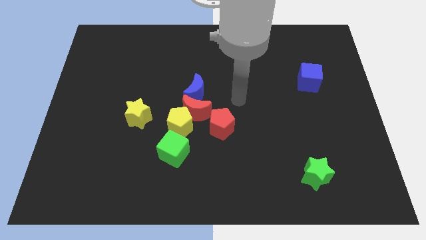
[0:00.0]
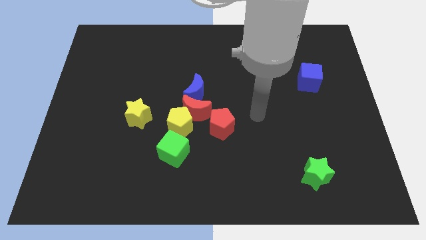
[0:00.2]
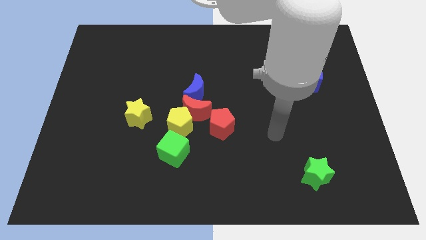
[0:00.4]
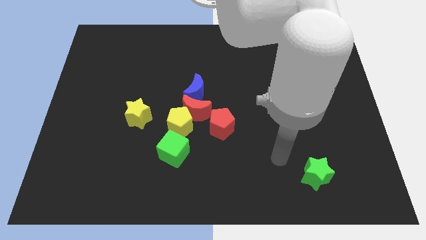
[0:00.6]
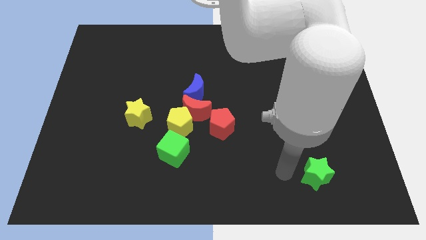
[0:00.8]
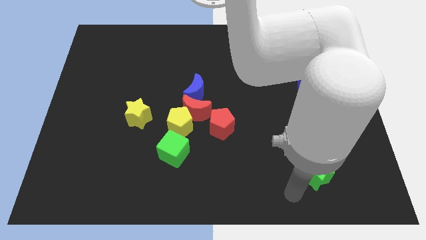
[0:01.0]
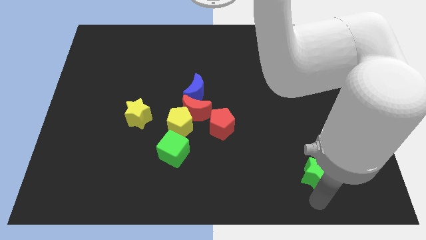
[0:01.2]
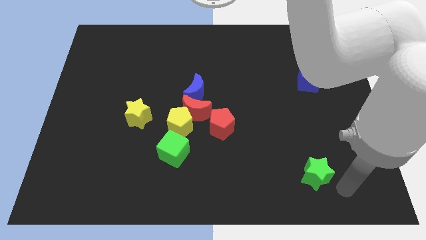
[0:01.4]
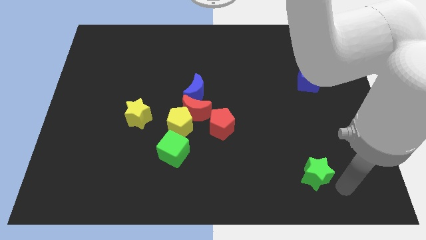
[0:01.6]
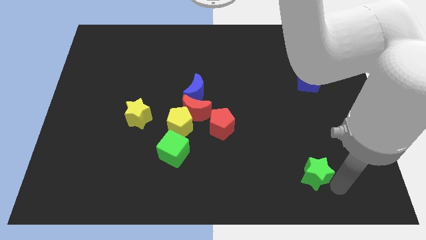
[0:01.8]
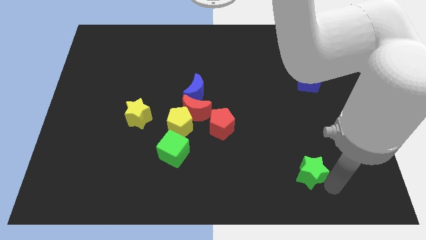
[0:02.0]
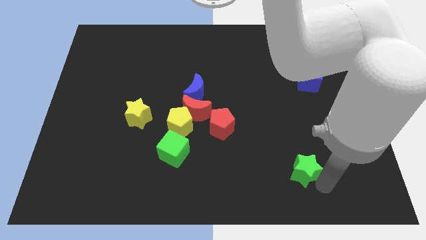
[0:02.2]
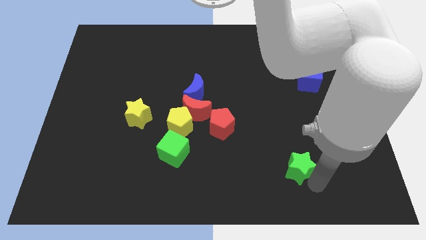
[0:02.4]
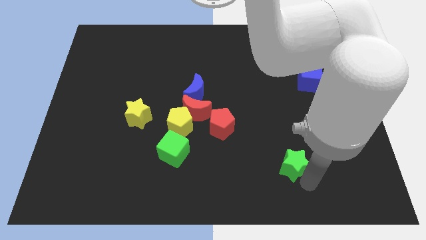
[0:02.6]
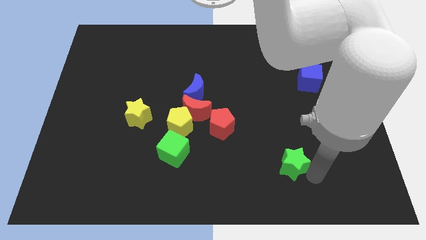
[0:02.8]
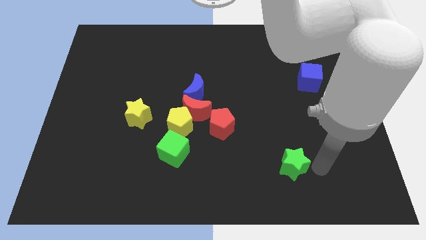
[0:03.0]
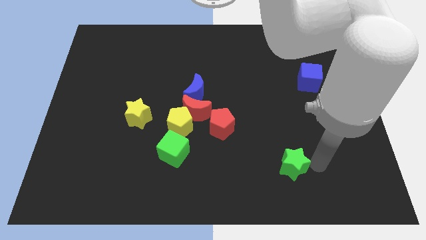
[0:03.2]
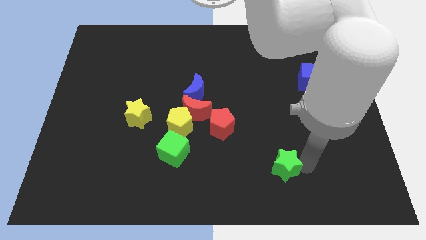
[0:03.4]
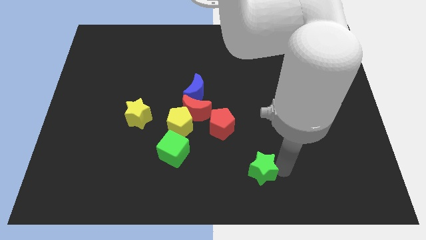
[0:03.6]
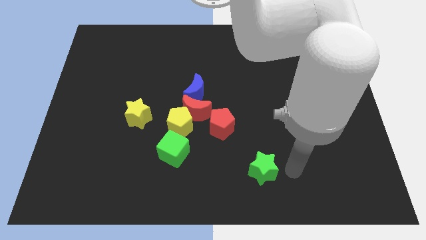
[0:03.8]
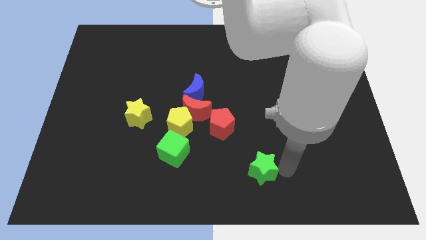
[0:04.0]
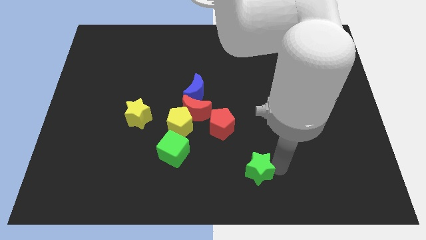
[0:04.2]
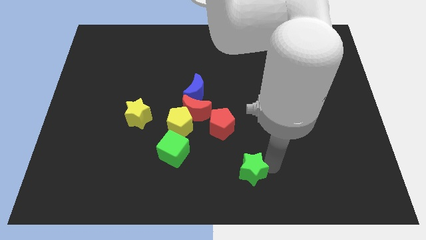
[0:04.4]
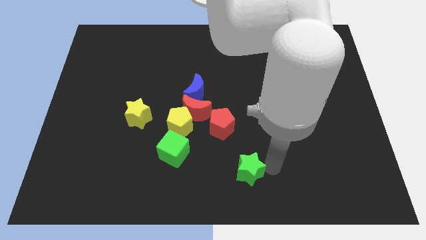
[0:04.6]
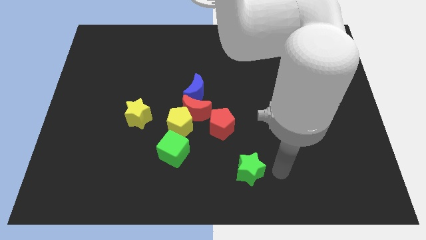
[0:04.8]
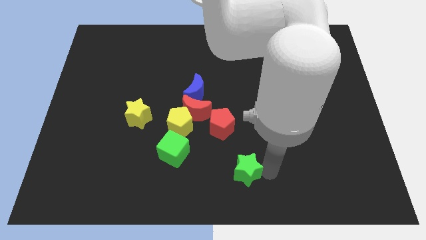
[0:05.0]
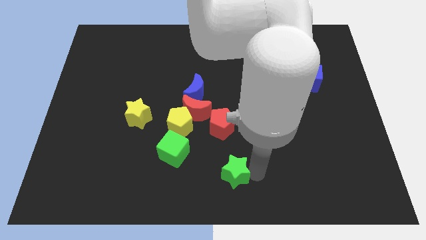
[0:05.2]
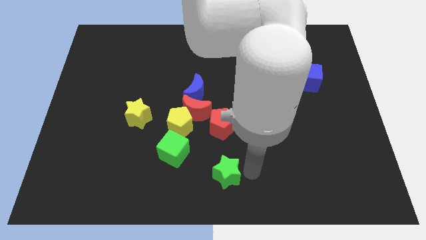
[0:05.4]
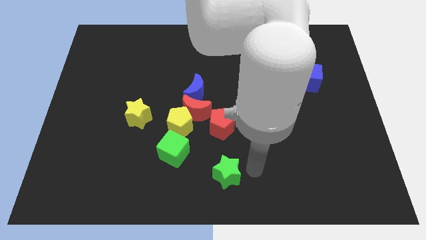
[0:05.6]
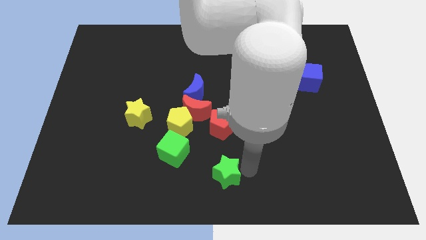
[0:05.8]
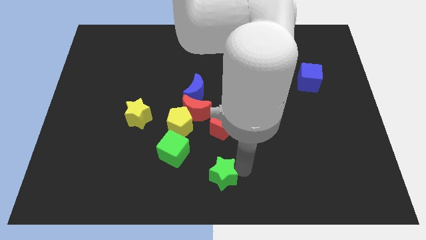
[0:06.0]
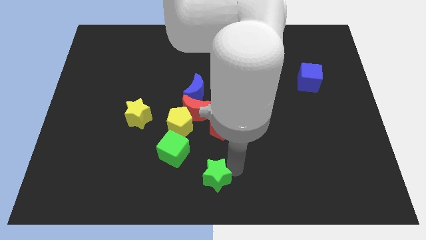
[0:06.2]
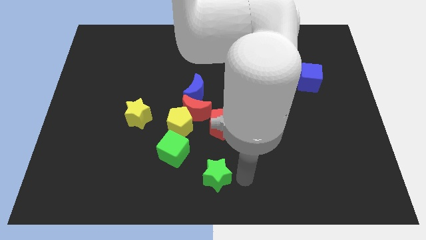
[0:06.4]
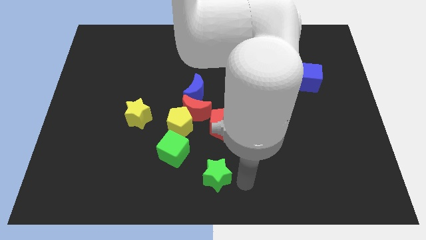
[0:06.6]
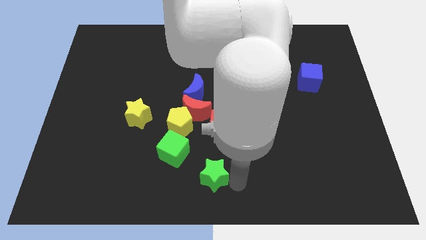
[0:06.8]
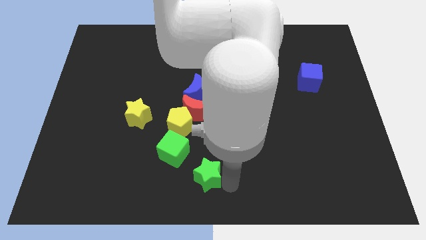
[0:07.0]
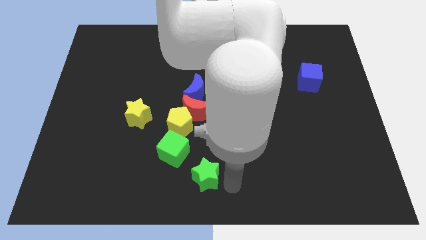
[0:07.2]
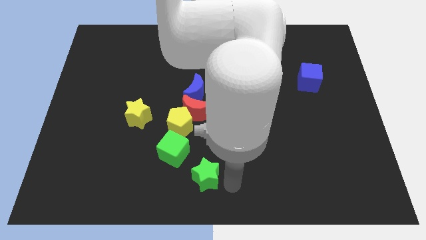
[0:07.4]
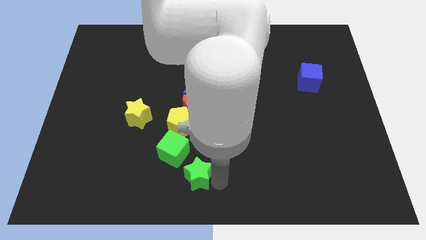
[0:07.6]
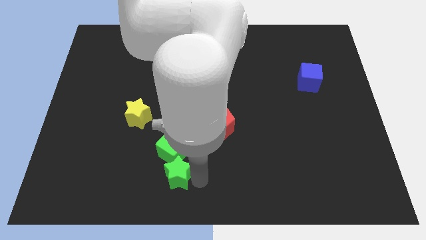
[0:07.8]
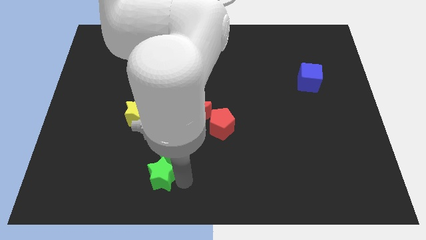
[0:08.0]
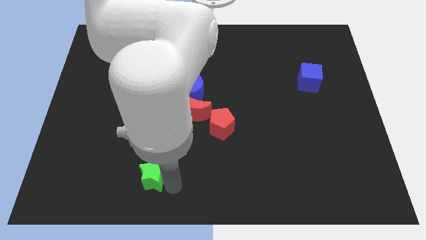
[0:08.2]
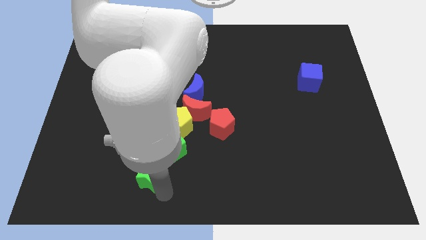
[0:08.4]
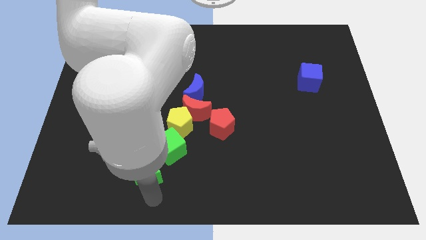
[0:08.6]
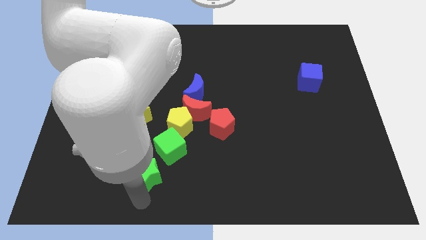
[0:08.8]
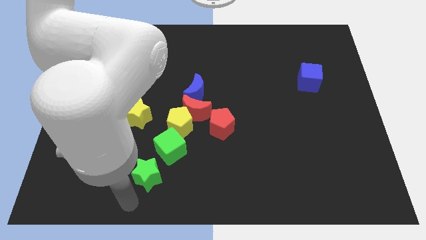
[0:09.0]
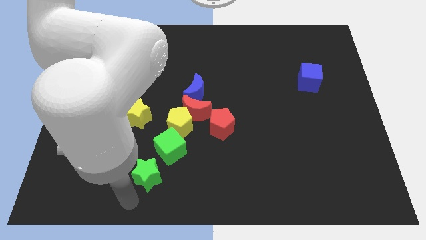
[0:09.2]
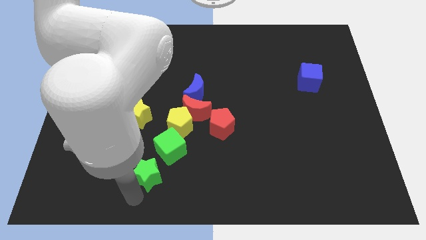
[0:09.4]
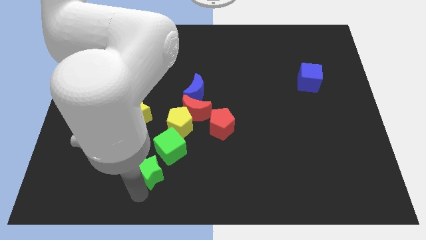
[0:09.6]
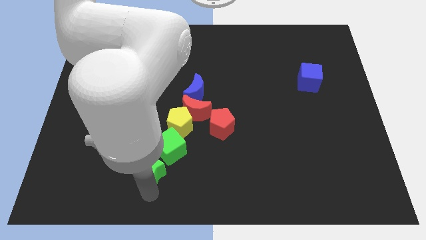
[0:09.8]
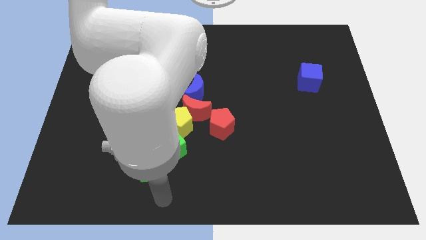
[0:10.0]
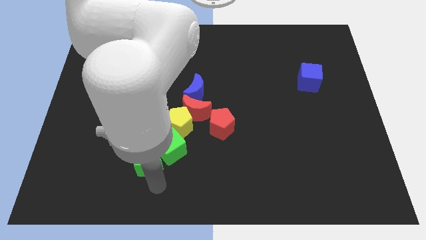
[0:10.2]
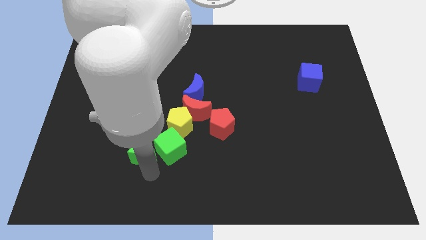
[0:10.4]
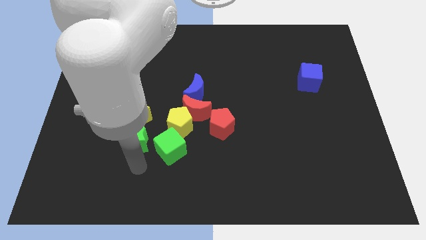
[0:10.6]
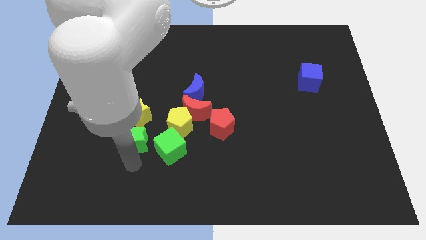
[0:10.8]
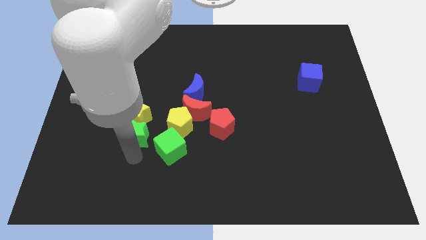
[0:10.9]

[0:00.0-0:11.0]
put the green star close to the yellow star

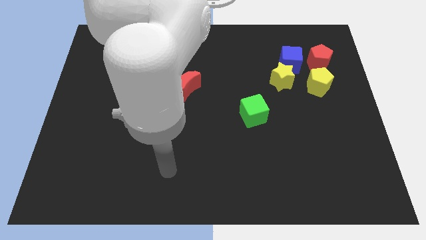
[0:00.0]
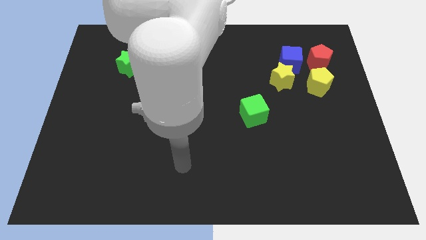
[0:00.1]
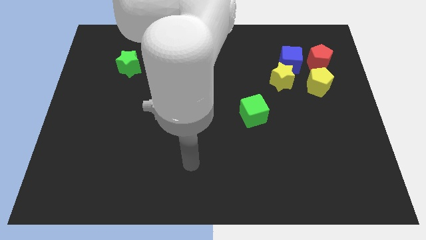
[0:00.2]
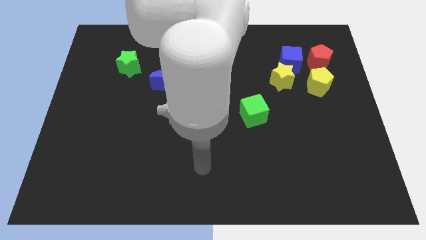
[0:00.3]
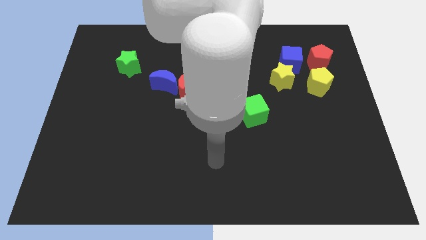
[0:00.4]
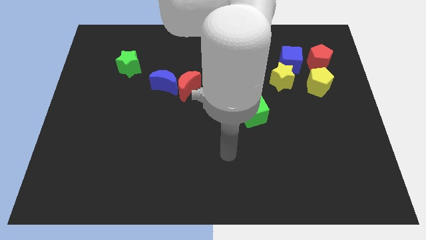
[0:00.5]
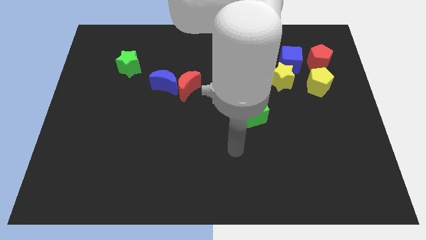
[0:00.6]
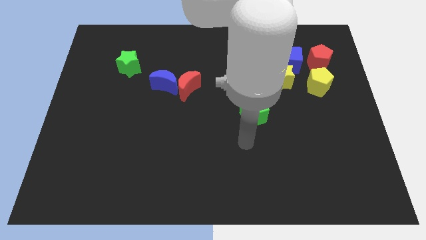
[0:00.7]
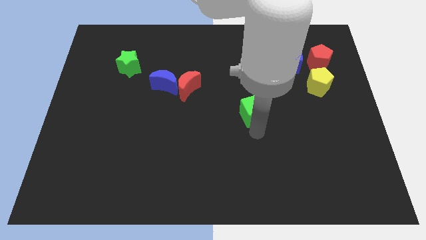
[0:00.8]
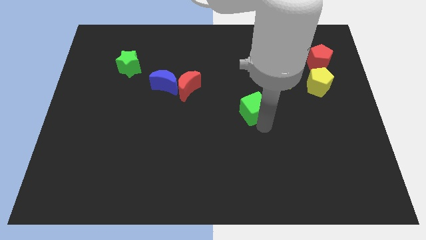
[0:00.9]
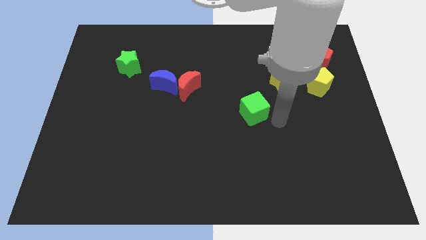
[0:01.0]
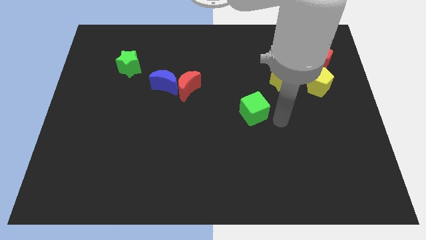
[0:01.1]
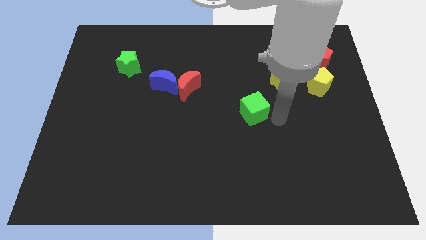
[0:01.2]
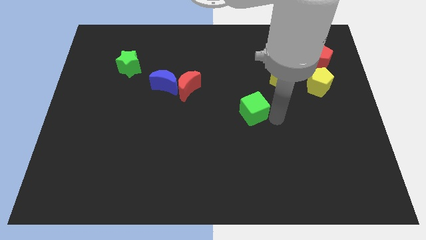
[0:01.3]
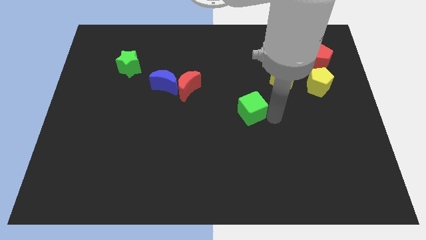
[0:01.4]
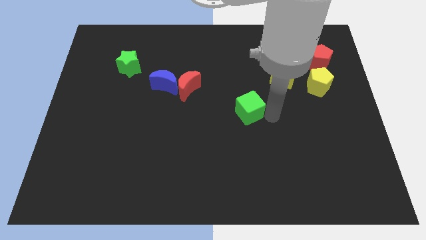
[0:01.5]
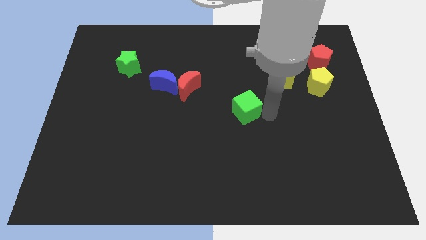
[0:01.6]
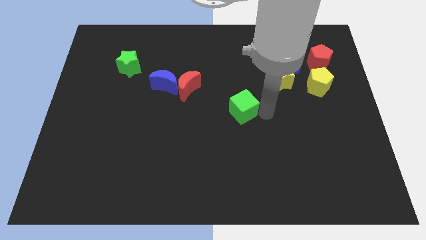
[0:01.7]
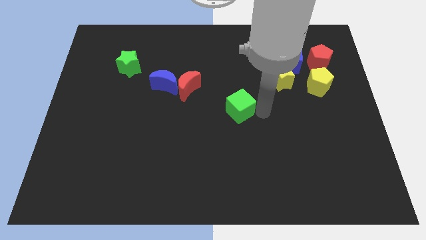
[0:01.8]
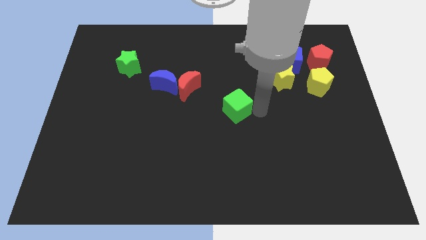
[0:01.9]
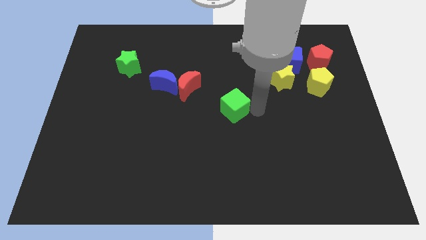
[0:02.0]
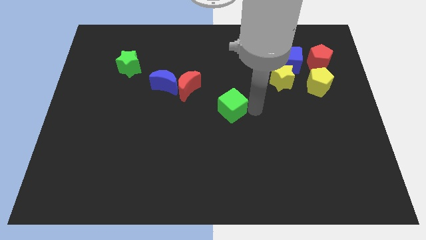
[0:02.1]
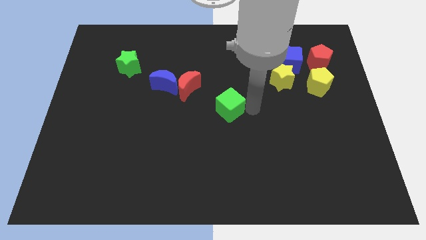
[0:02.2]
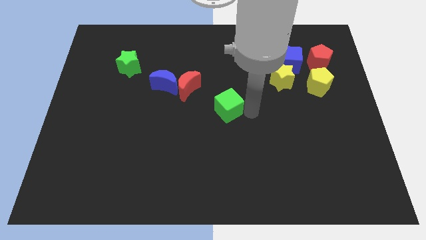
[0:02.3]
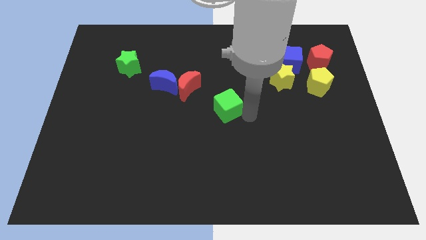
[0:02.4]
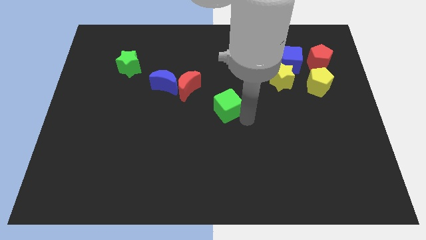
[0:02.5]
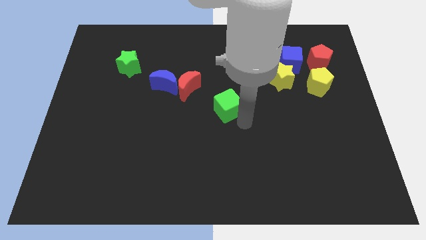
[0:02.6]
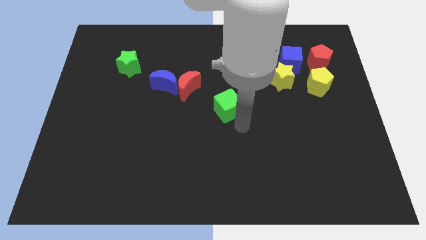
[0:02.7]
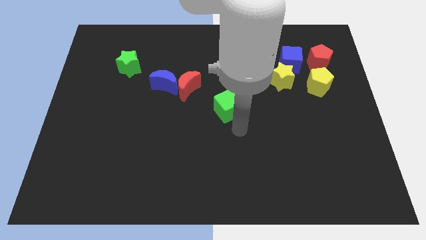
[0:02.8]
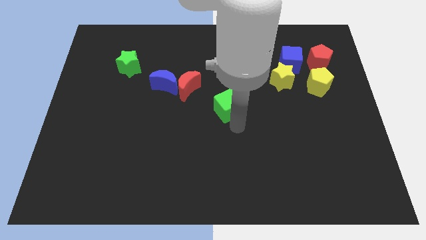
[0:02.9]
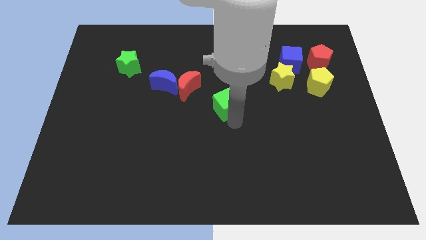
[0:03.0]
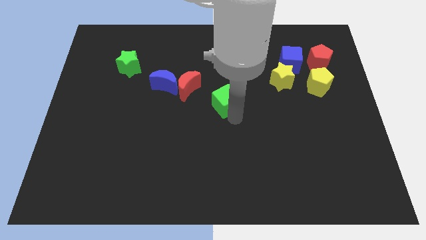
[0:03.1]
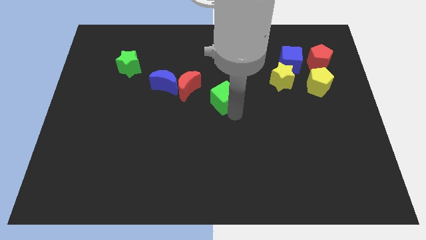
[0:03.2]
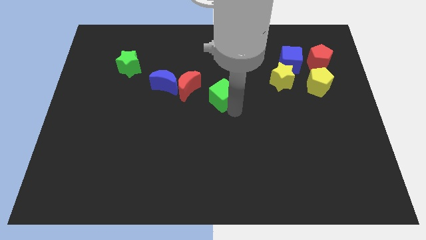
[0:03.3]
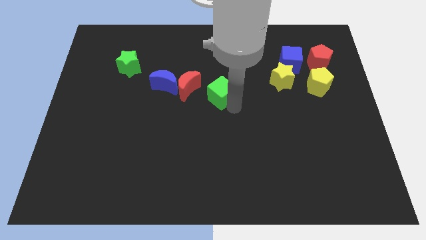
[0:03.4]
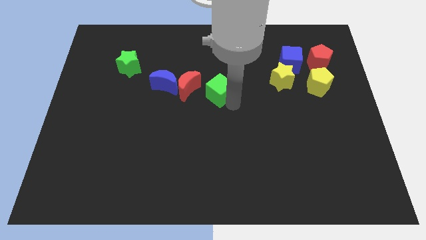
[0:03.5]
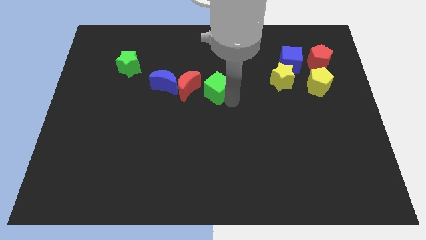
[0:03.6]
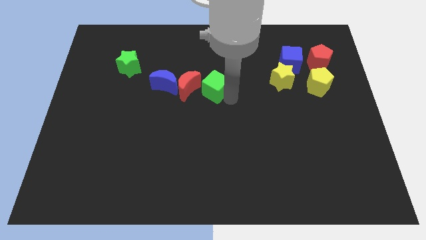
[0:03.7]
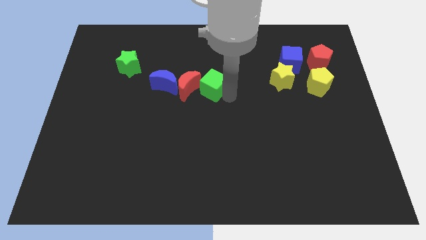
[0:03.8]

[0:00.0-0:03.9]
move the green cube towards the red moon
